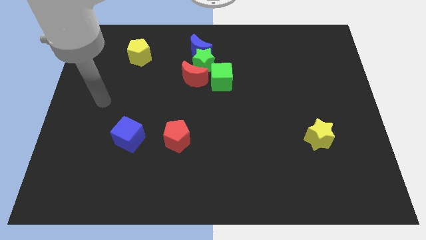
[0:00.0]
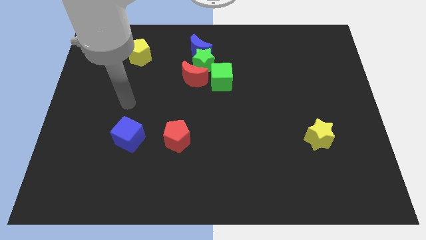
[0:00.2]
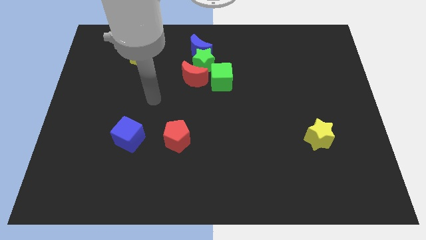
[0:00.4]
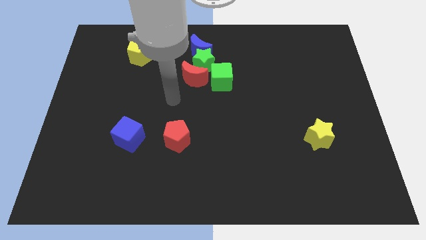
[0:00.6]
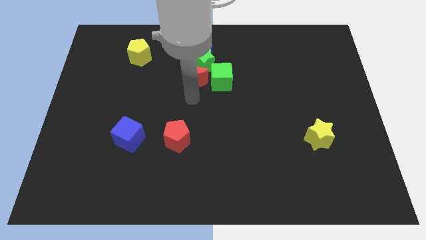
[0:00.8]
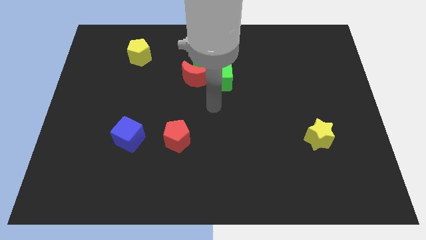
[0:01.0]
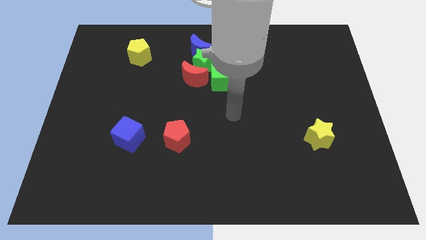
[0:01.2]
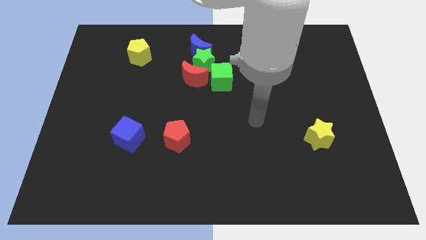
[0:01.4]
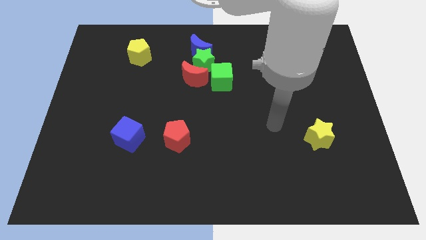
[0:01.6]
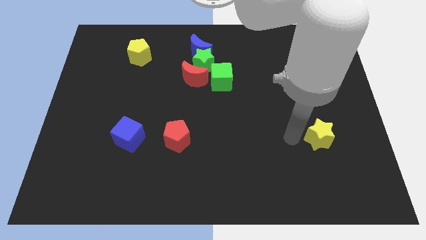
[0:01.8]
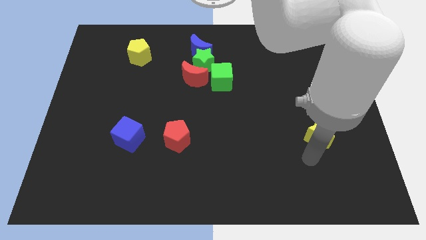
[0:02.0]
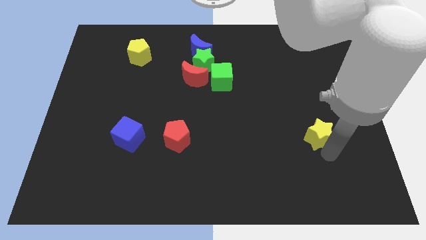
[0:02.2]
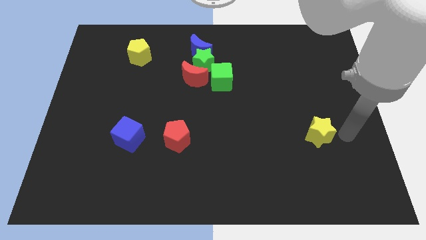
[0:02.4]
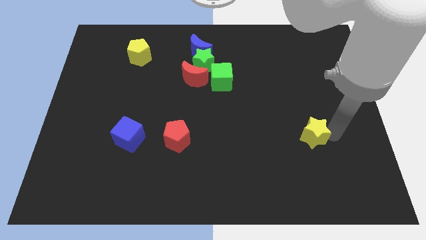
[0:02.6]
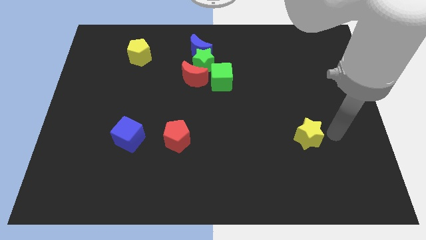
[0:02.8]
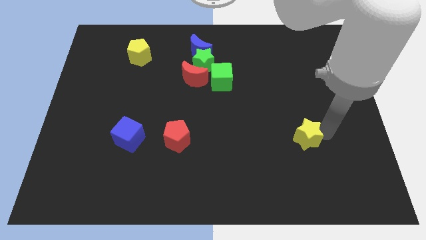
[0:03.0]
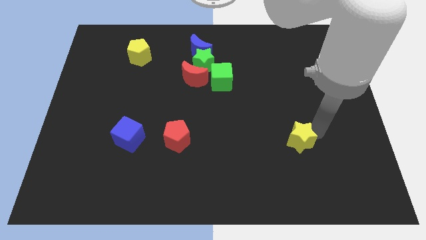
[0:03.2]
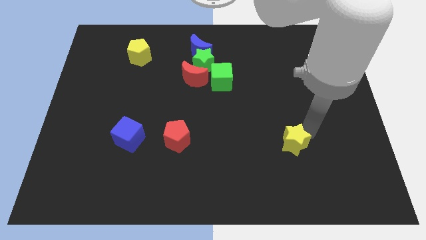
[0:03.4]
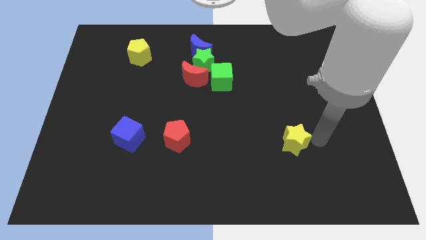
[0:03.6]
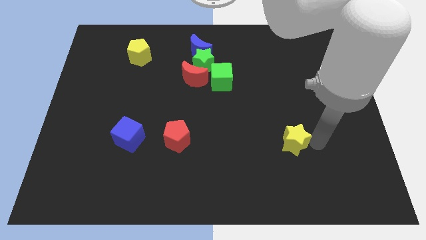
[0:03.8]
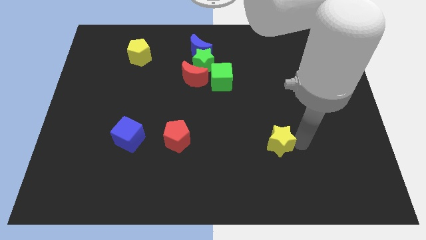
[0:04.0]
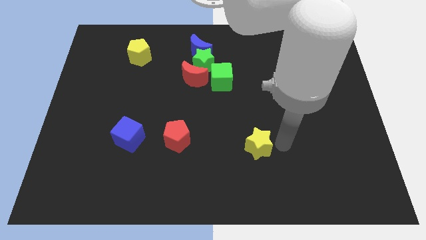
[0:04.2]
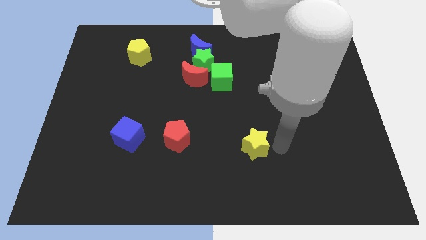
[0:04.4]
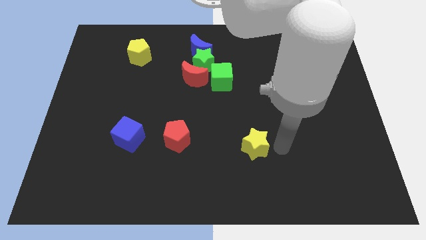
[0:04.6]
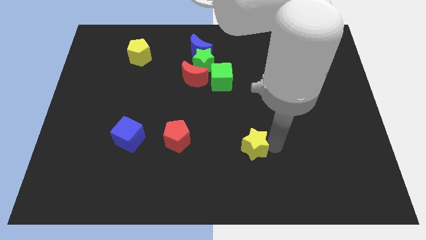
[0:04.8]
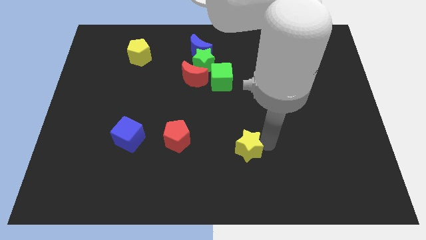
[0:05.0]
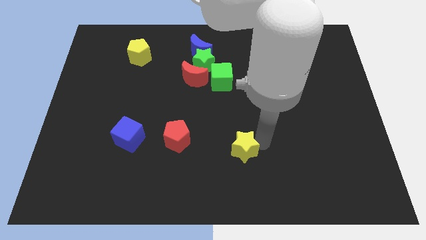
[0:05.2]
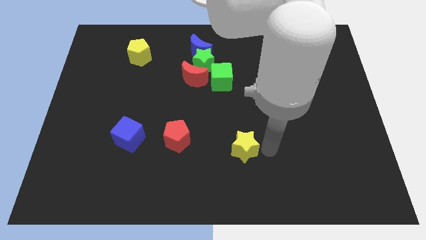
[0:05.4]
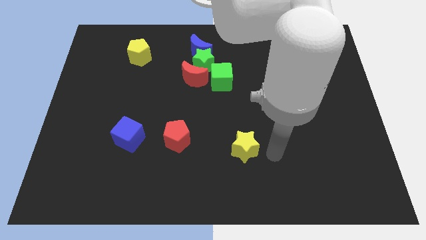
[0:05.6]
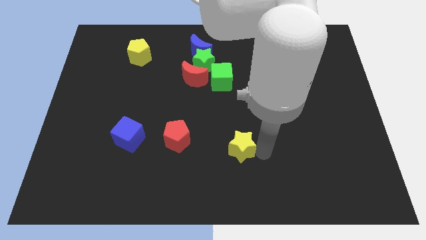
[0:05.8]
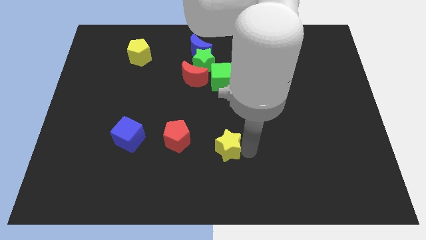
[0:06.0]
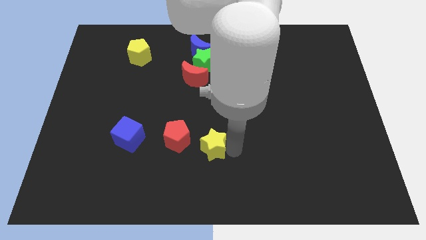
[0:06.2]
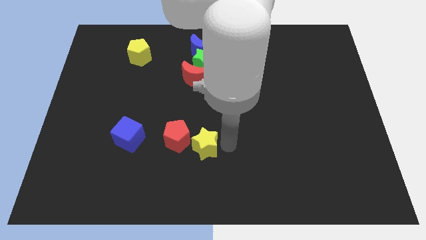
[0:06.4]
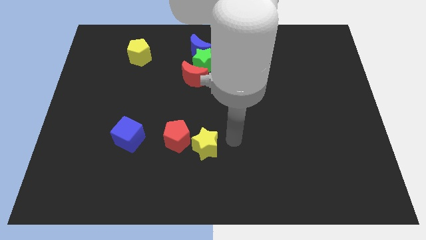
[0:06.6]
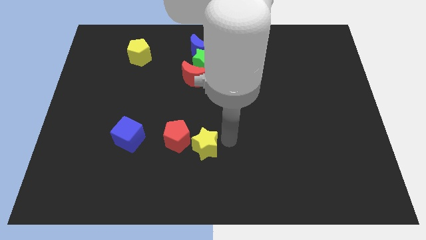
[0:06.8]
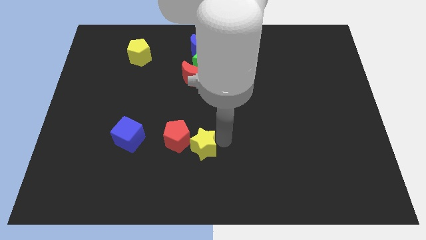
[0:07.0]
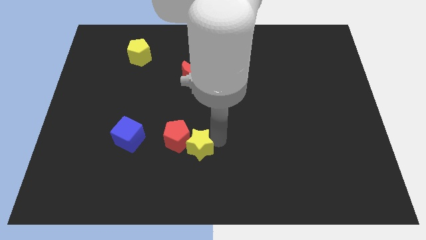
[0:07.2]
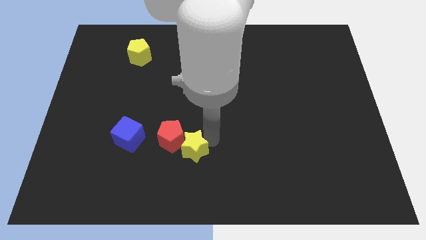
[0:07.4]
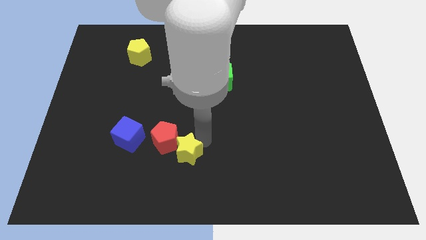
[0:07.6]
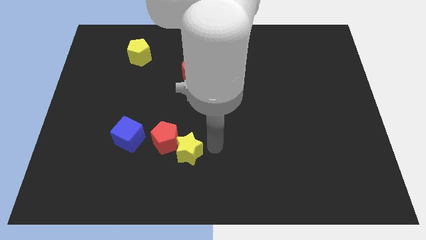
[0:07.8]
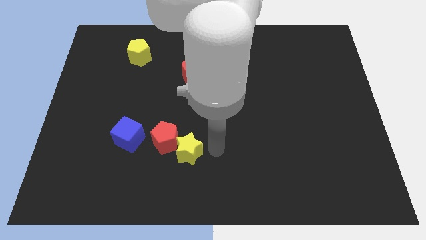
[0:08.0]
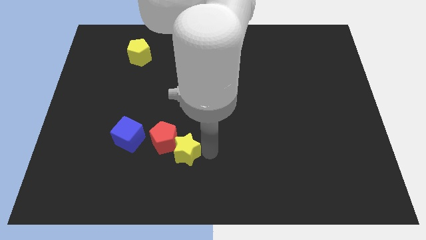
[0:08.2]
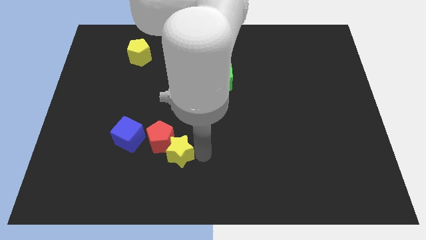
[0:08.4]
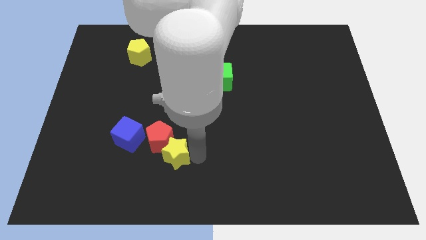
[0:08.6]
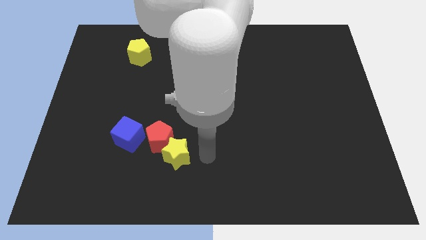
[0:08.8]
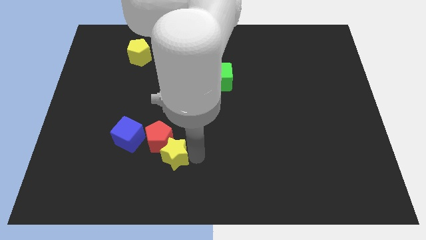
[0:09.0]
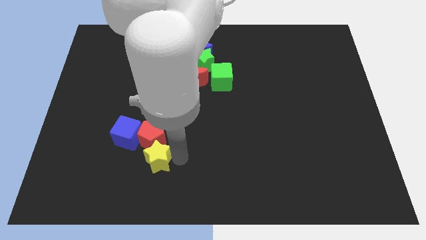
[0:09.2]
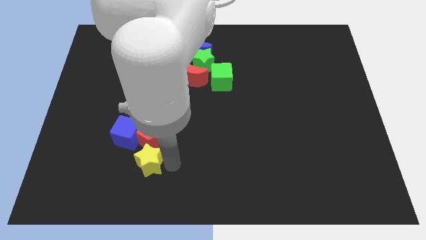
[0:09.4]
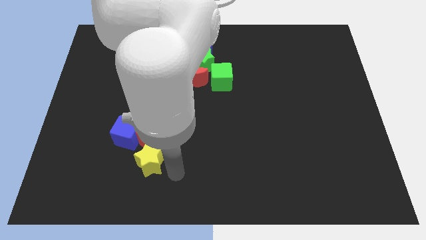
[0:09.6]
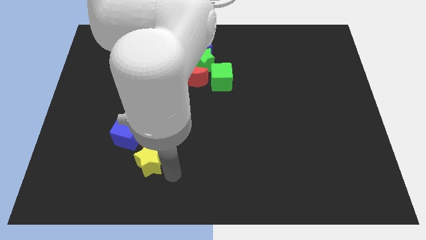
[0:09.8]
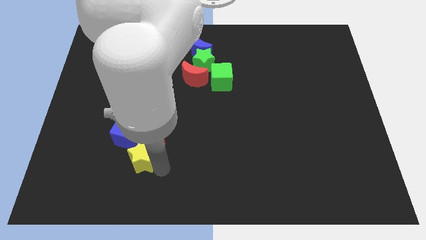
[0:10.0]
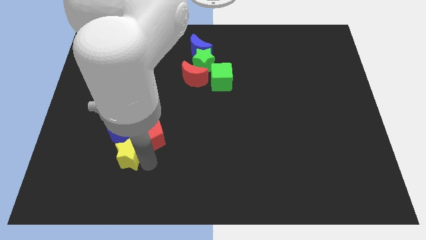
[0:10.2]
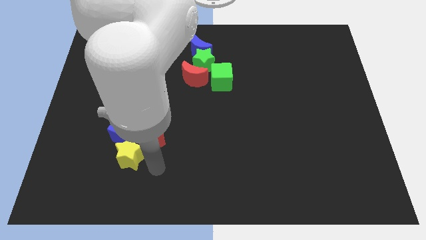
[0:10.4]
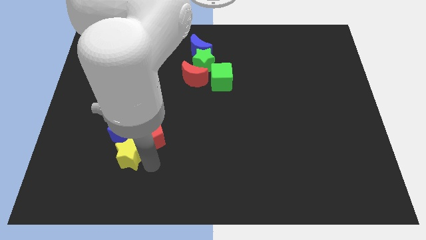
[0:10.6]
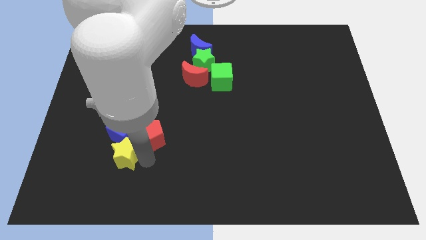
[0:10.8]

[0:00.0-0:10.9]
push the yellow star to the left side of the red pentagon

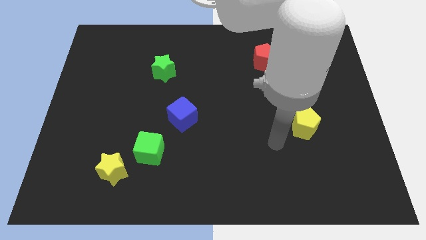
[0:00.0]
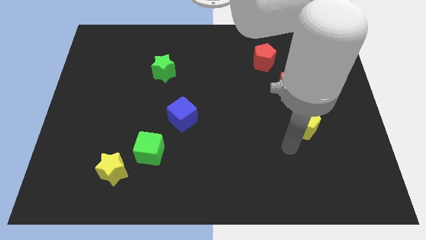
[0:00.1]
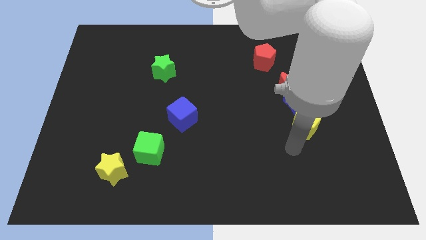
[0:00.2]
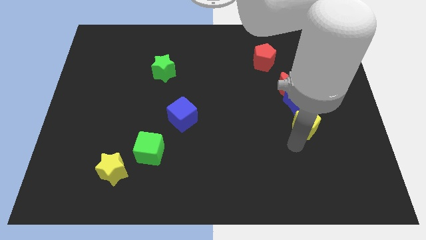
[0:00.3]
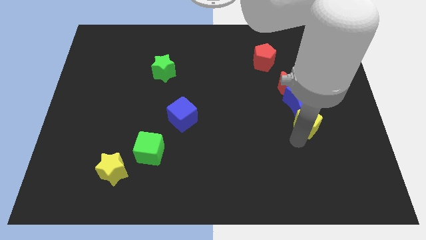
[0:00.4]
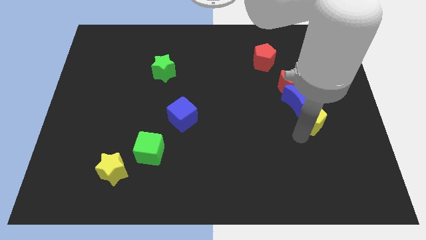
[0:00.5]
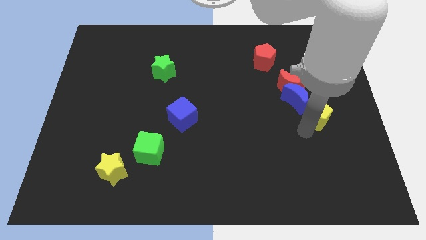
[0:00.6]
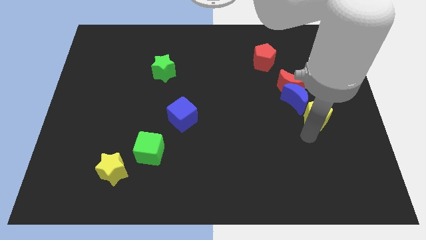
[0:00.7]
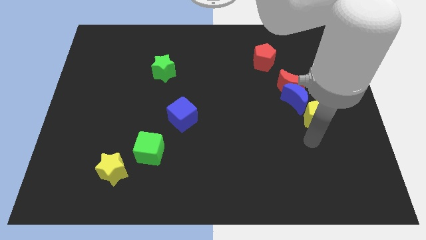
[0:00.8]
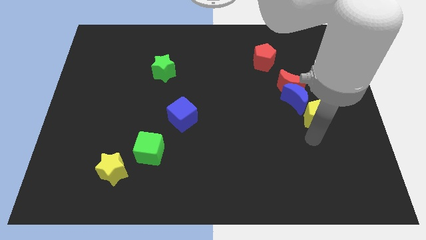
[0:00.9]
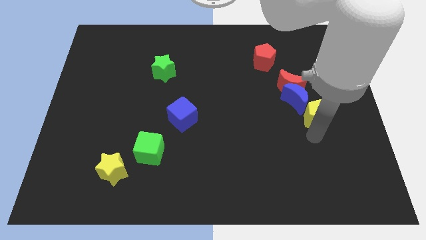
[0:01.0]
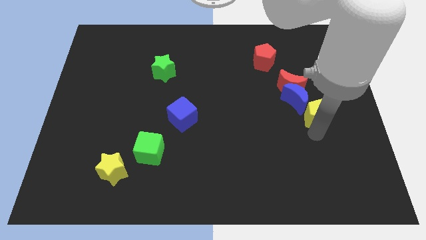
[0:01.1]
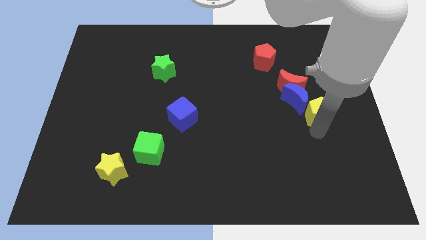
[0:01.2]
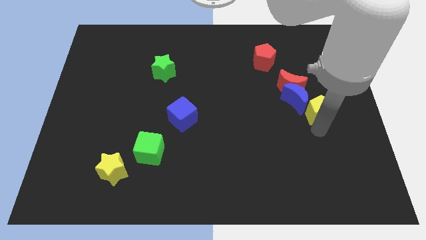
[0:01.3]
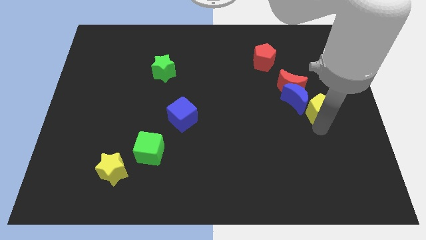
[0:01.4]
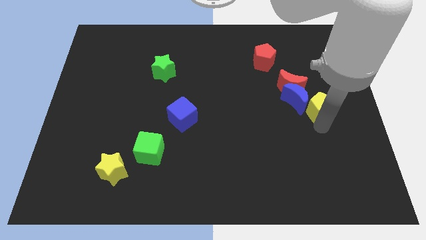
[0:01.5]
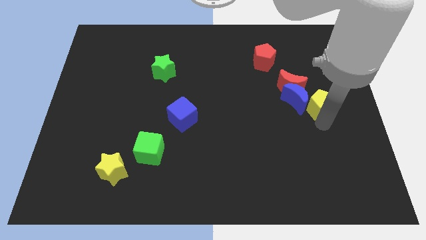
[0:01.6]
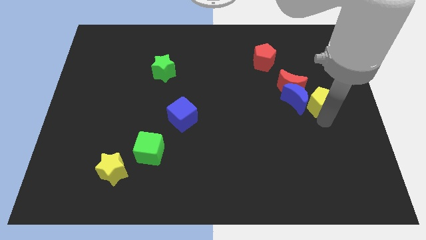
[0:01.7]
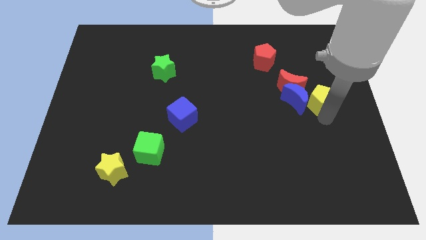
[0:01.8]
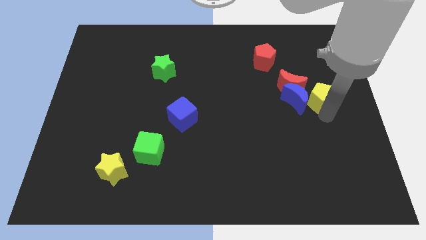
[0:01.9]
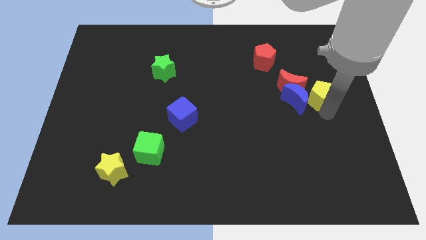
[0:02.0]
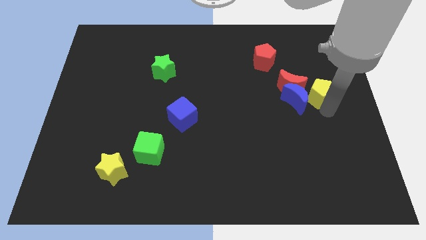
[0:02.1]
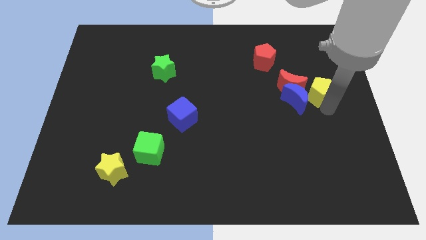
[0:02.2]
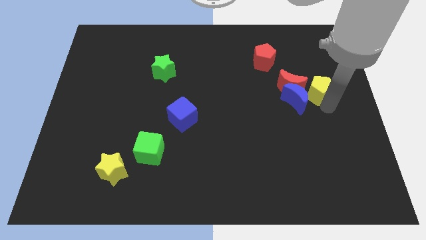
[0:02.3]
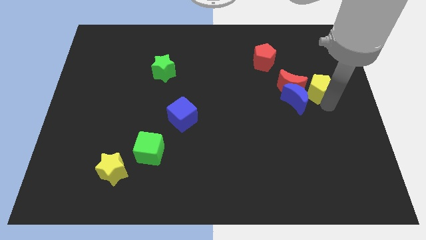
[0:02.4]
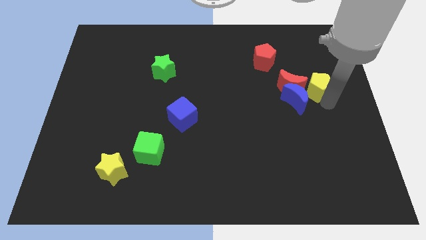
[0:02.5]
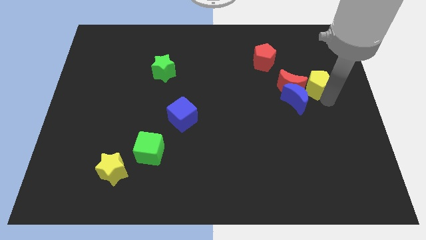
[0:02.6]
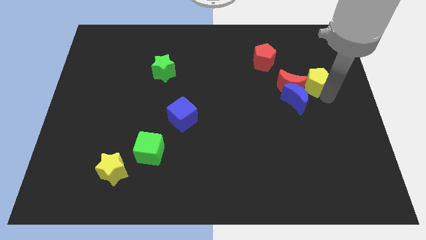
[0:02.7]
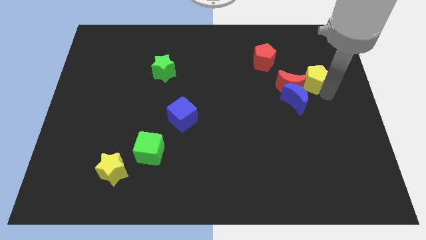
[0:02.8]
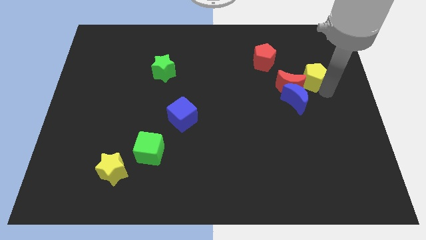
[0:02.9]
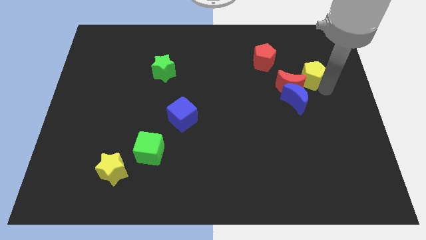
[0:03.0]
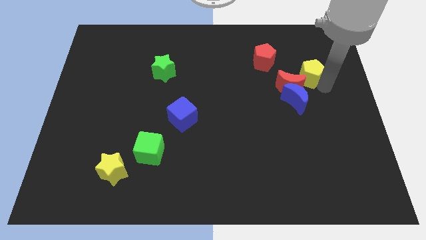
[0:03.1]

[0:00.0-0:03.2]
slide the yellow pentagon to the top side of the blue moon
